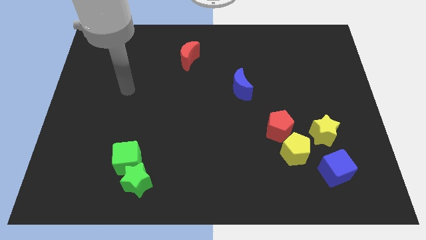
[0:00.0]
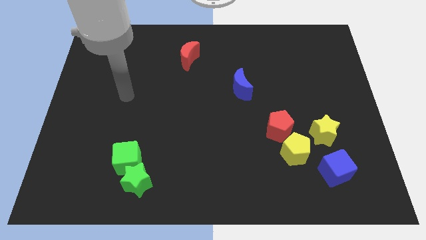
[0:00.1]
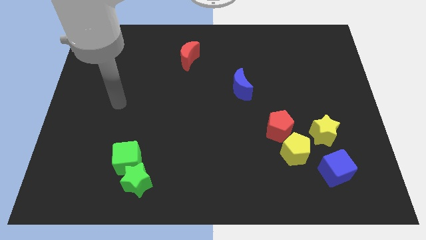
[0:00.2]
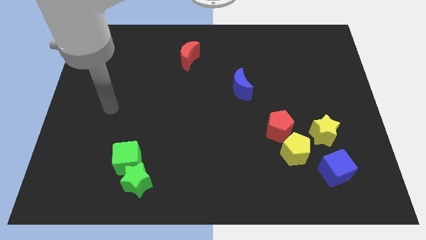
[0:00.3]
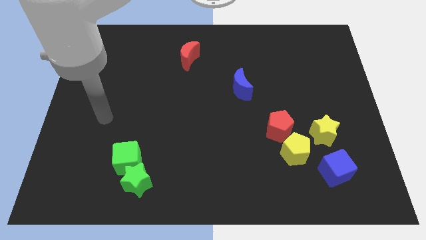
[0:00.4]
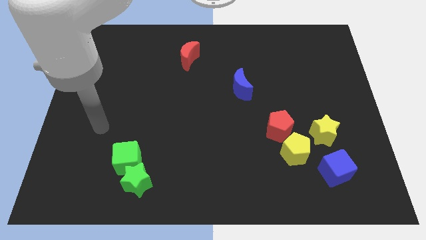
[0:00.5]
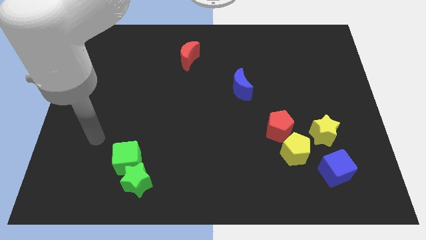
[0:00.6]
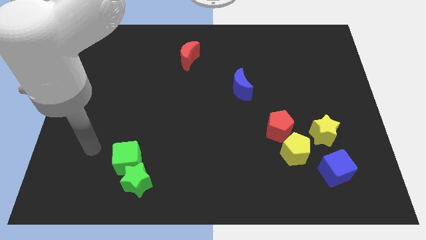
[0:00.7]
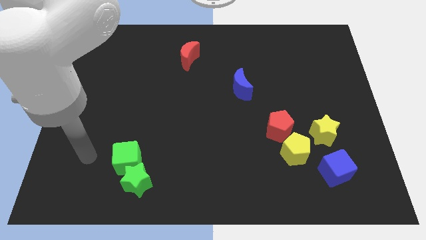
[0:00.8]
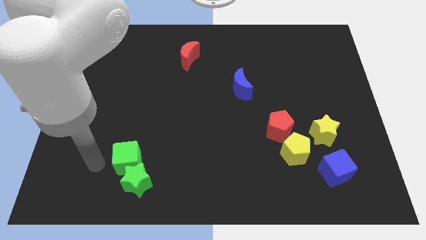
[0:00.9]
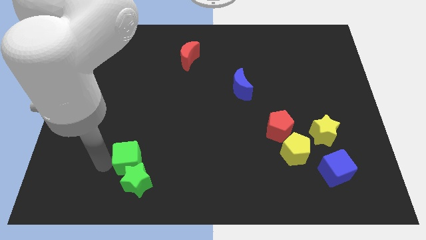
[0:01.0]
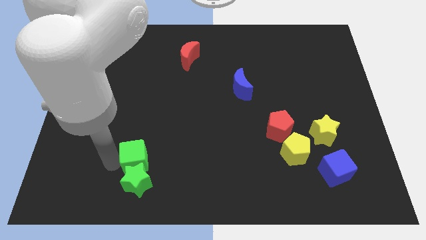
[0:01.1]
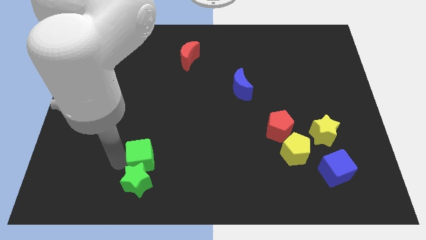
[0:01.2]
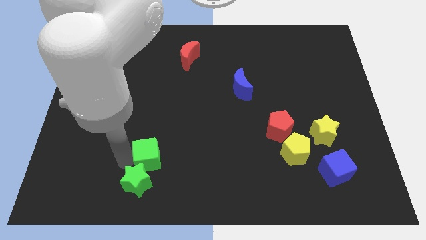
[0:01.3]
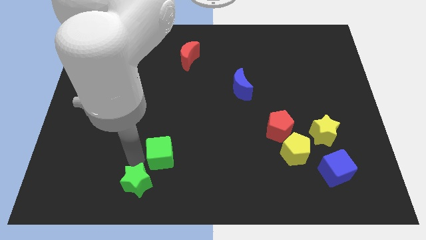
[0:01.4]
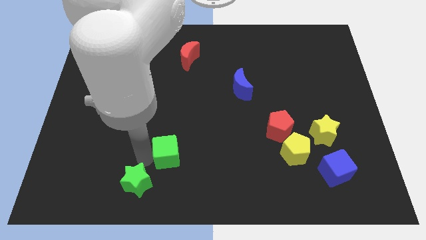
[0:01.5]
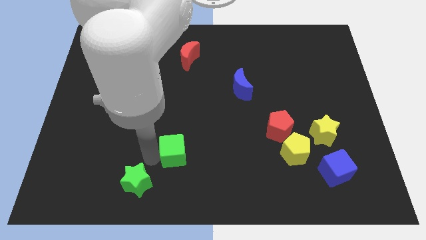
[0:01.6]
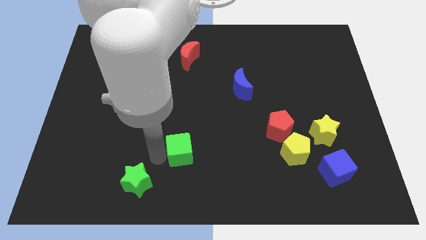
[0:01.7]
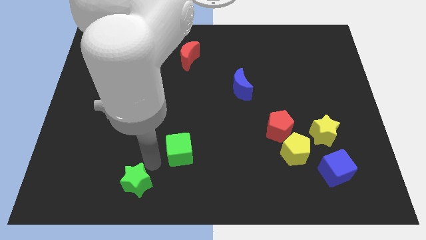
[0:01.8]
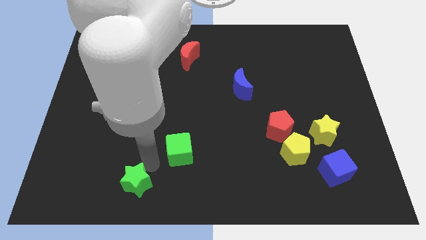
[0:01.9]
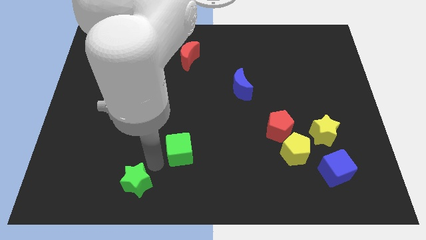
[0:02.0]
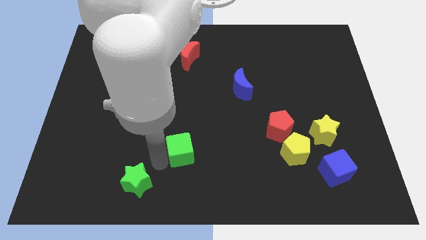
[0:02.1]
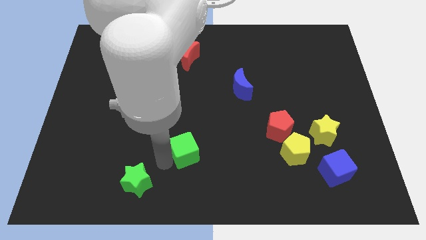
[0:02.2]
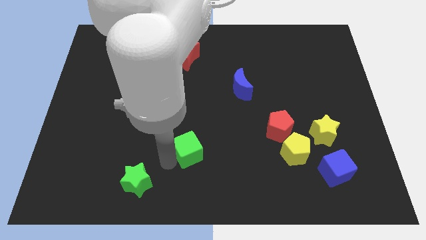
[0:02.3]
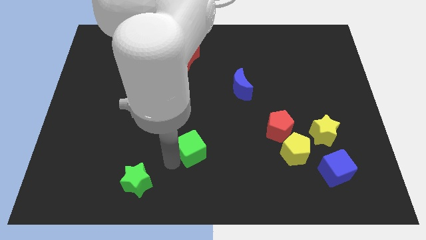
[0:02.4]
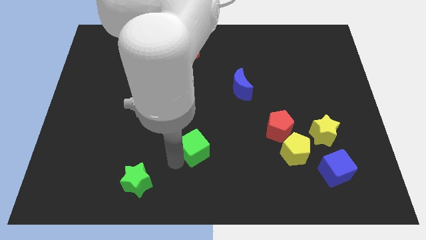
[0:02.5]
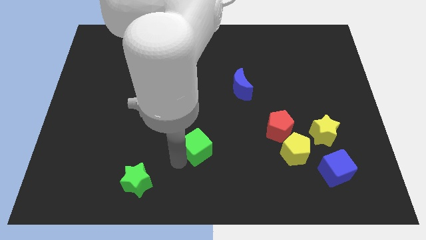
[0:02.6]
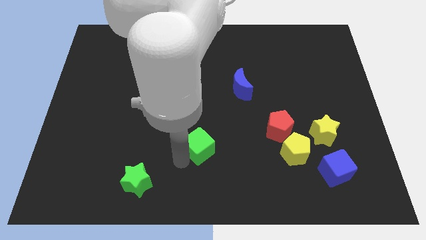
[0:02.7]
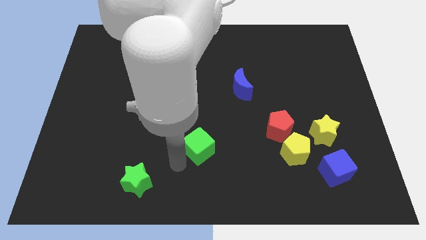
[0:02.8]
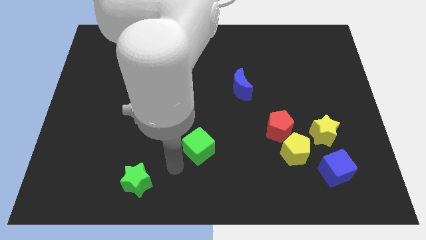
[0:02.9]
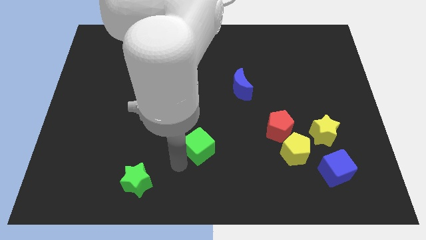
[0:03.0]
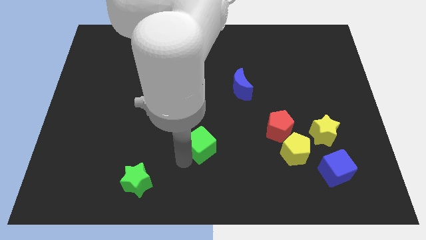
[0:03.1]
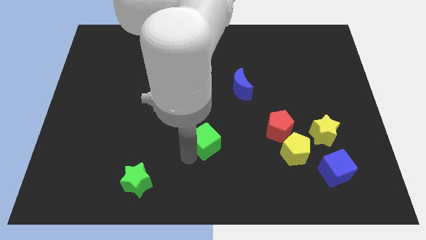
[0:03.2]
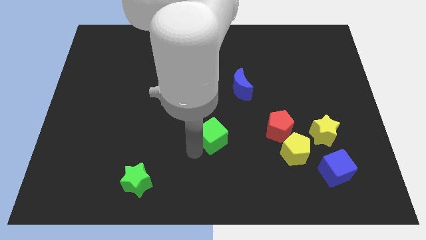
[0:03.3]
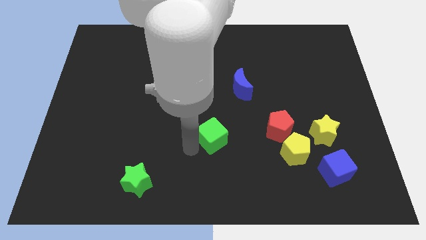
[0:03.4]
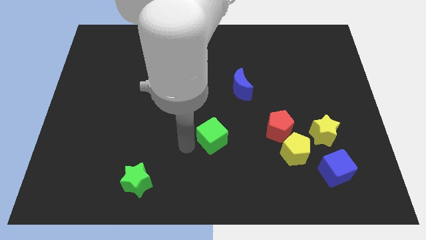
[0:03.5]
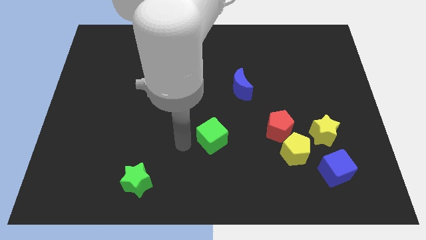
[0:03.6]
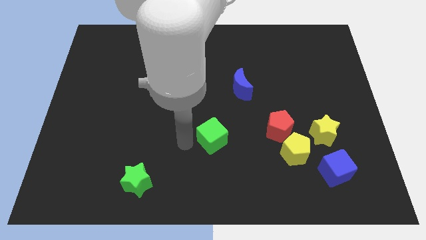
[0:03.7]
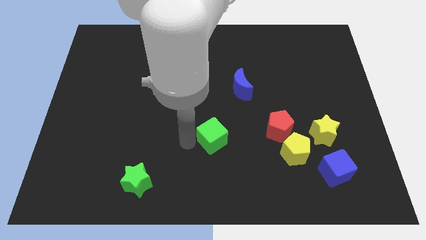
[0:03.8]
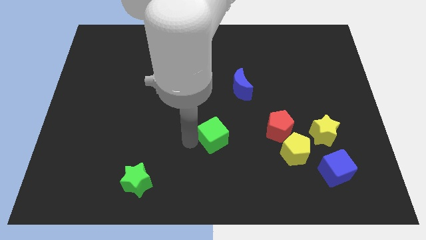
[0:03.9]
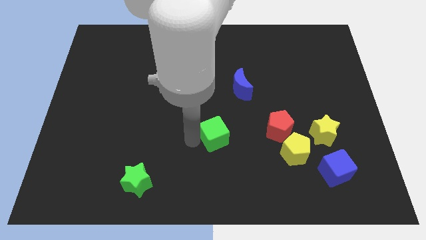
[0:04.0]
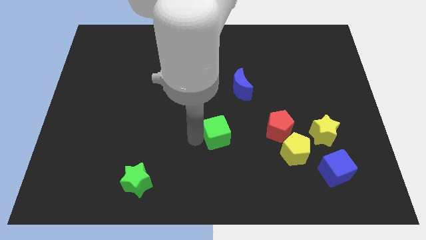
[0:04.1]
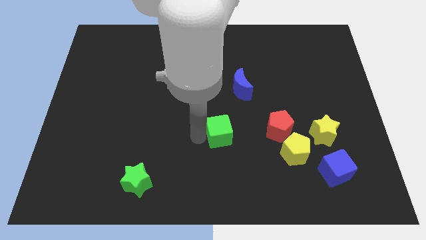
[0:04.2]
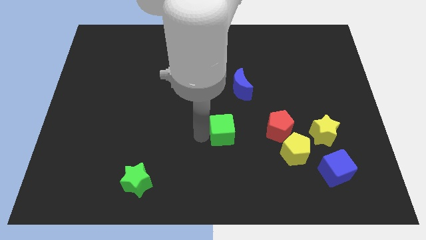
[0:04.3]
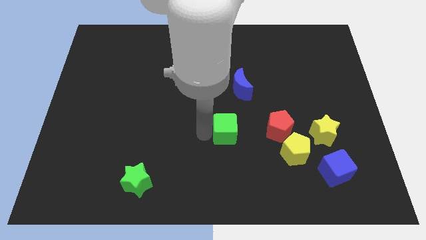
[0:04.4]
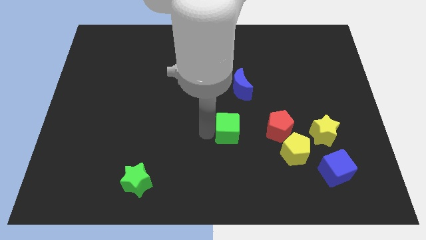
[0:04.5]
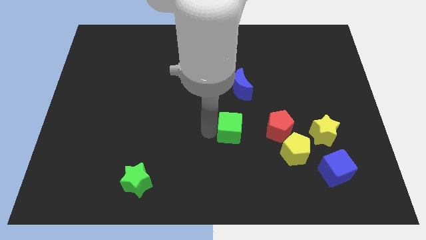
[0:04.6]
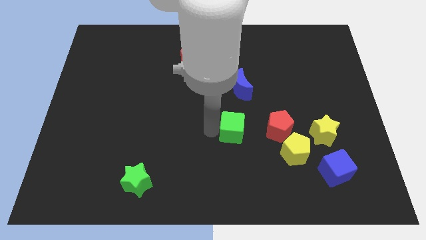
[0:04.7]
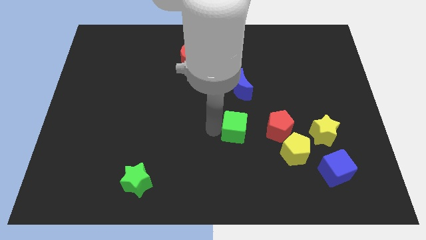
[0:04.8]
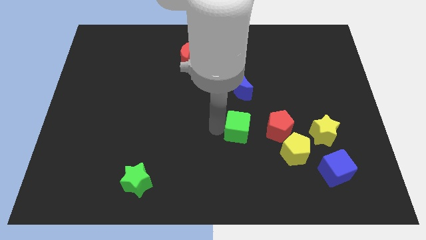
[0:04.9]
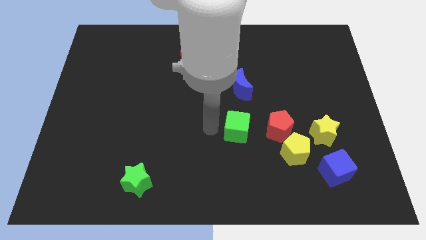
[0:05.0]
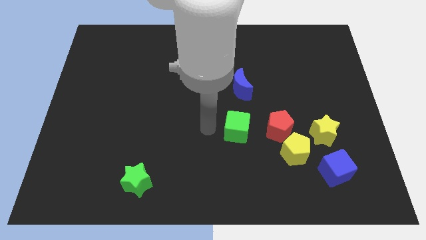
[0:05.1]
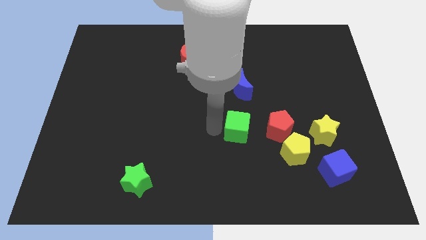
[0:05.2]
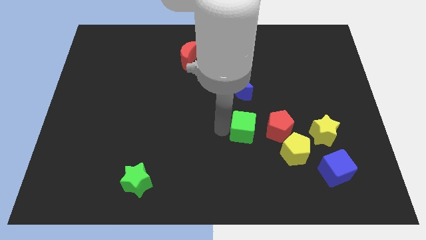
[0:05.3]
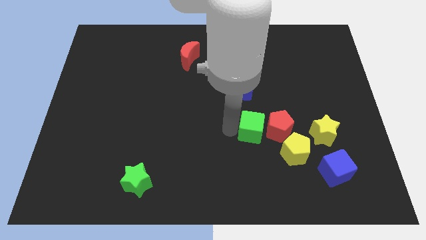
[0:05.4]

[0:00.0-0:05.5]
slide the green cube diagonally up and to the left of the yellow pentagon
